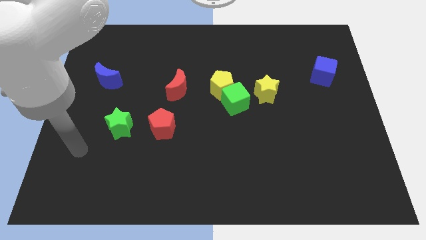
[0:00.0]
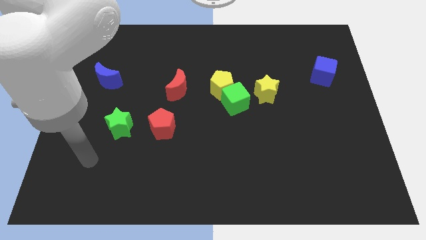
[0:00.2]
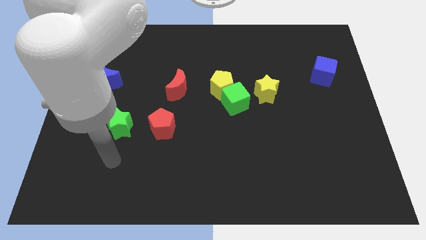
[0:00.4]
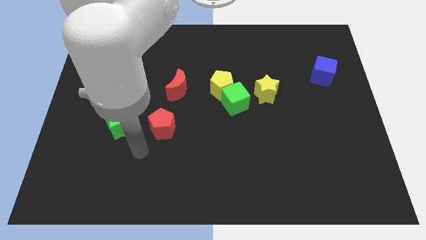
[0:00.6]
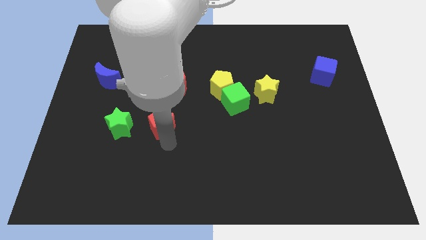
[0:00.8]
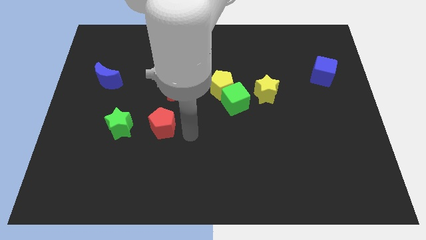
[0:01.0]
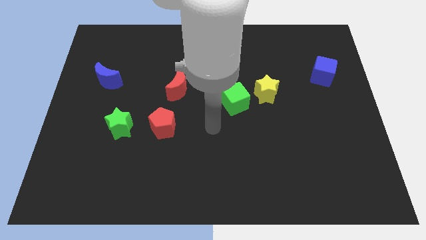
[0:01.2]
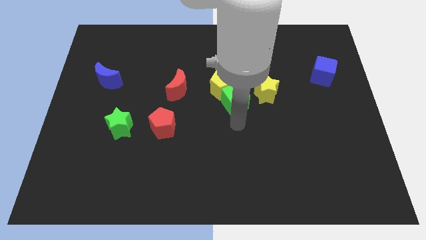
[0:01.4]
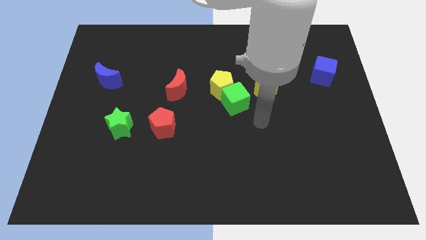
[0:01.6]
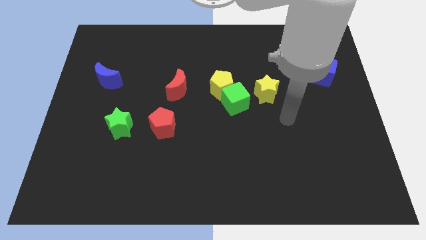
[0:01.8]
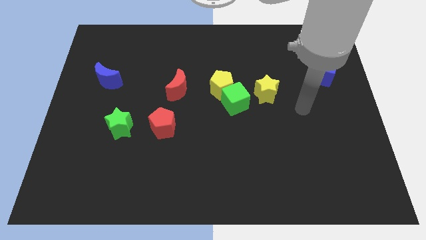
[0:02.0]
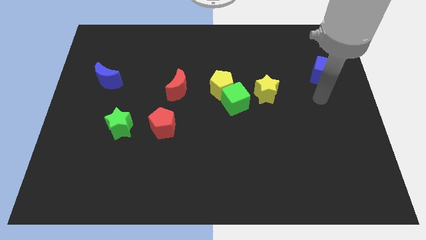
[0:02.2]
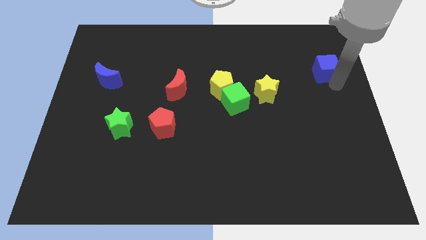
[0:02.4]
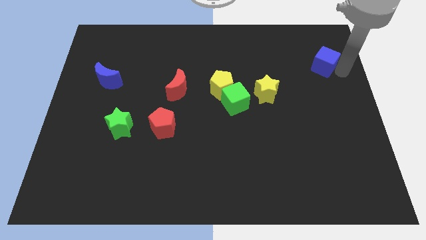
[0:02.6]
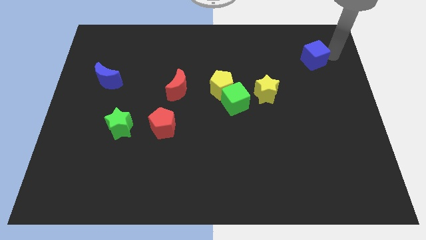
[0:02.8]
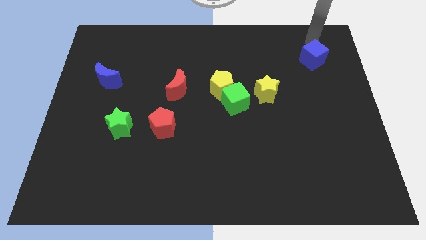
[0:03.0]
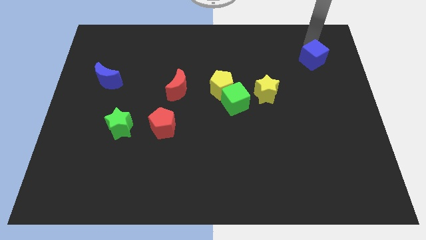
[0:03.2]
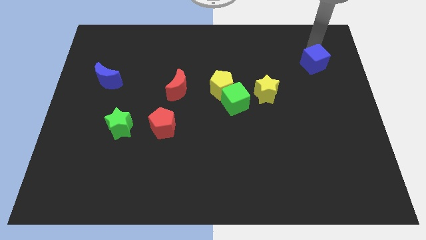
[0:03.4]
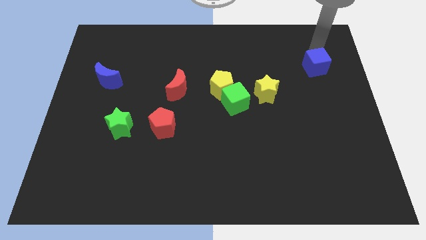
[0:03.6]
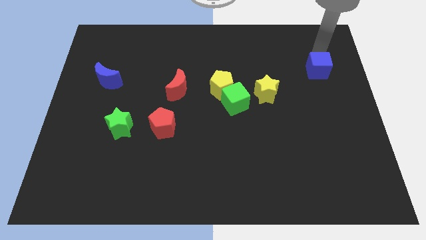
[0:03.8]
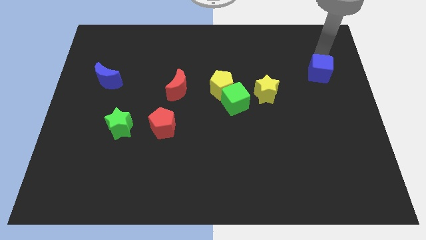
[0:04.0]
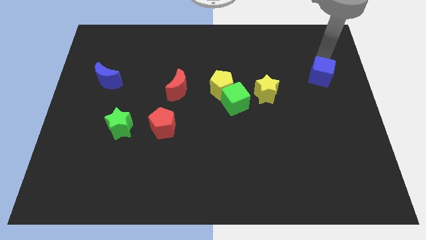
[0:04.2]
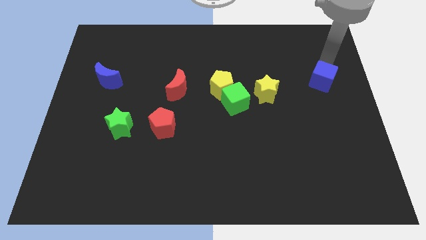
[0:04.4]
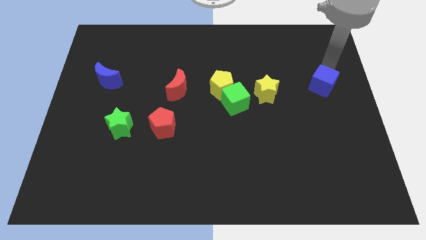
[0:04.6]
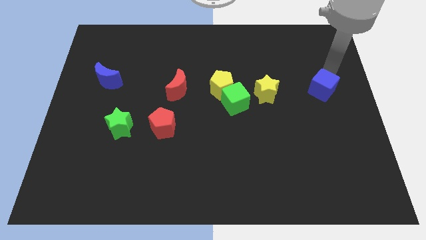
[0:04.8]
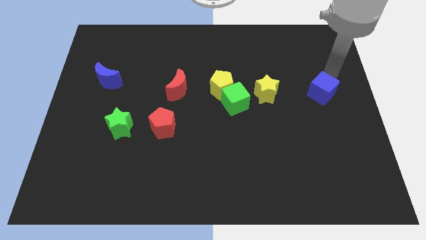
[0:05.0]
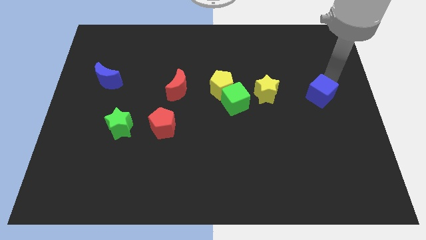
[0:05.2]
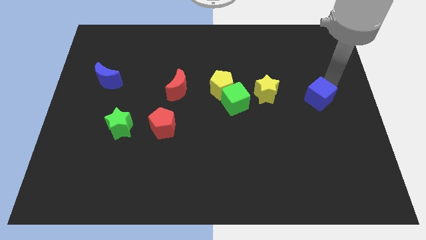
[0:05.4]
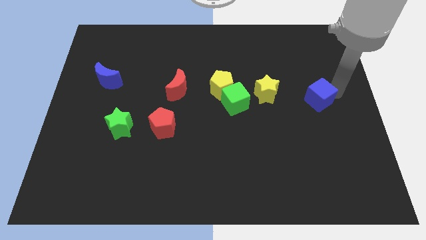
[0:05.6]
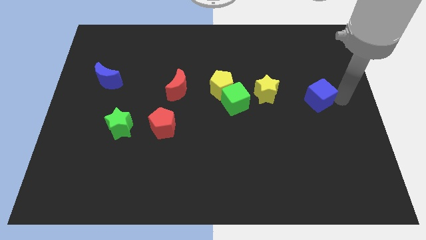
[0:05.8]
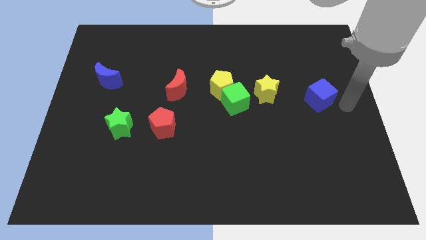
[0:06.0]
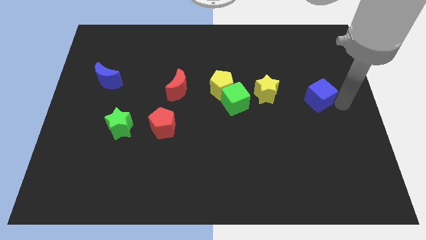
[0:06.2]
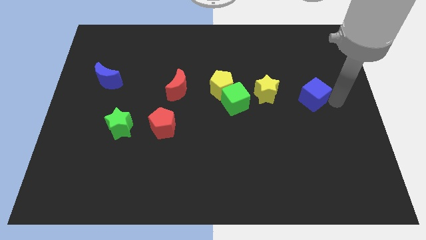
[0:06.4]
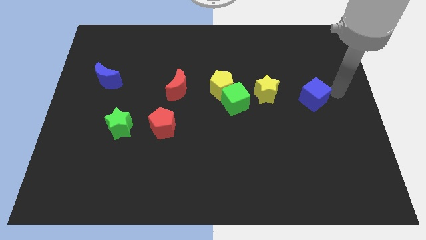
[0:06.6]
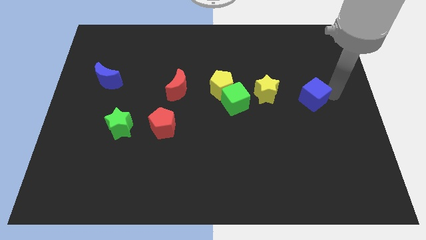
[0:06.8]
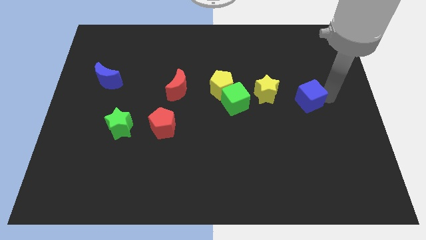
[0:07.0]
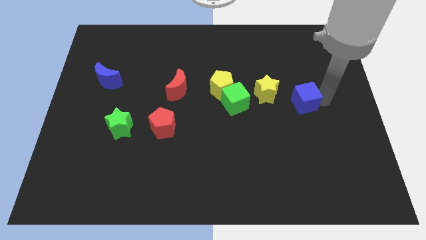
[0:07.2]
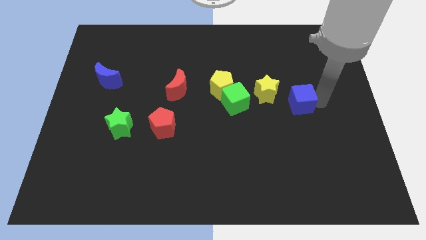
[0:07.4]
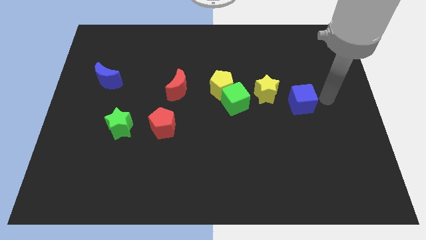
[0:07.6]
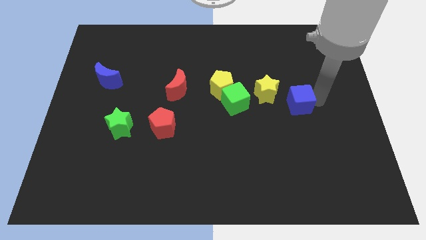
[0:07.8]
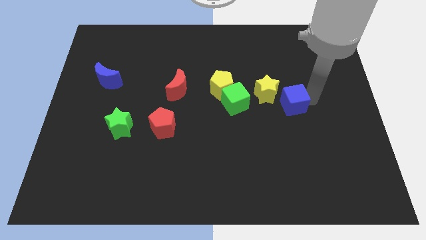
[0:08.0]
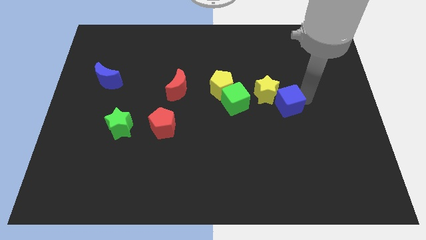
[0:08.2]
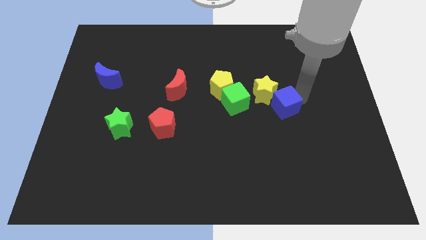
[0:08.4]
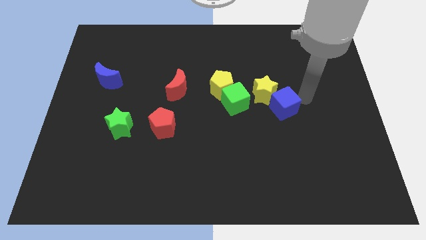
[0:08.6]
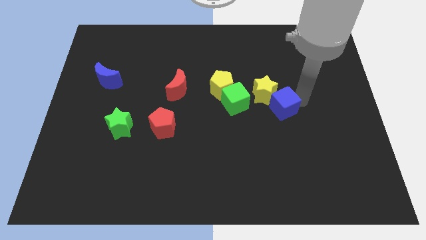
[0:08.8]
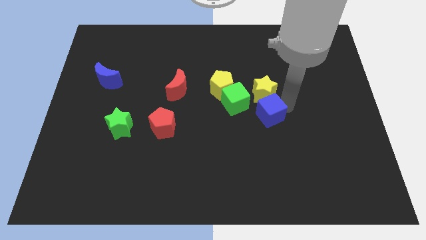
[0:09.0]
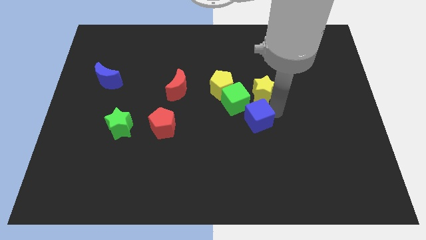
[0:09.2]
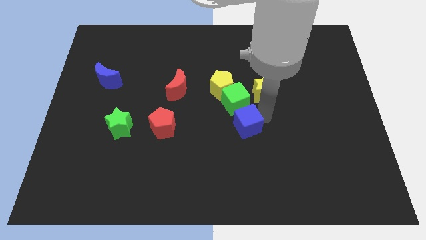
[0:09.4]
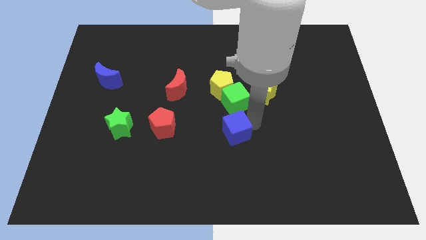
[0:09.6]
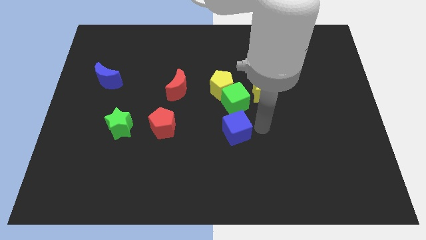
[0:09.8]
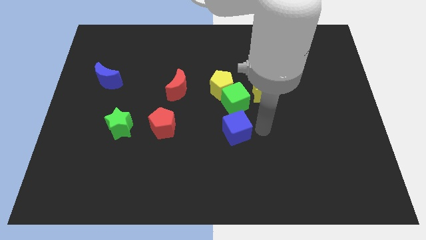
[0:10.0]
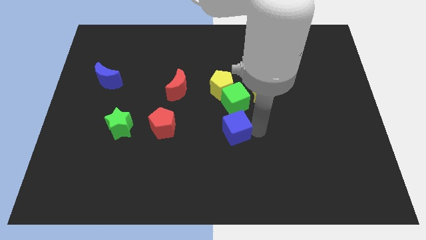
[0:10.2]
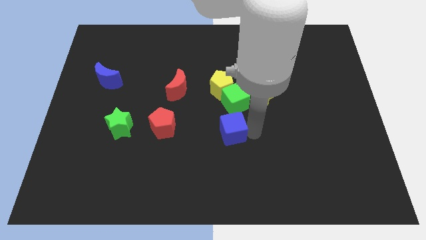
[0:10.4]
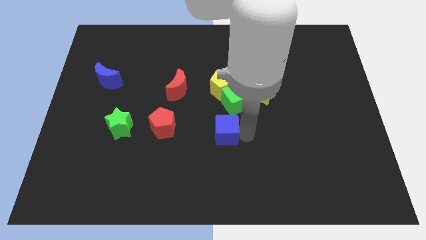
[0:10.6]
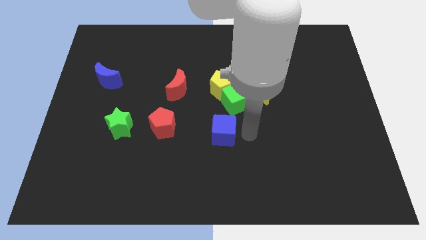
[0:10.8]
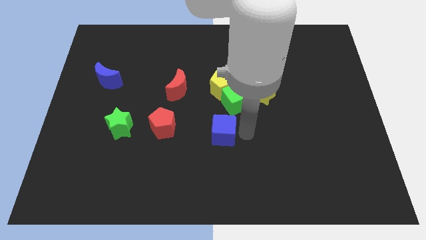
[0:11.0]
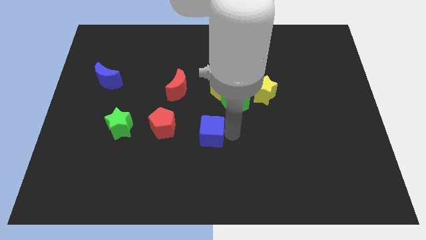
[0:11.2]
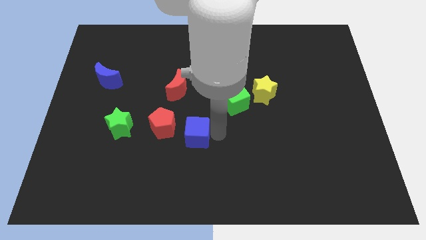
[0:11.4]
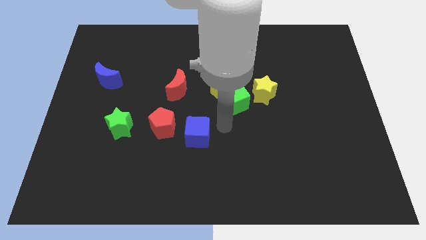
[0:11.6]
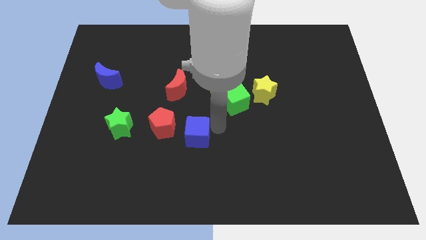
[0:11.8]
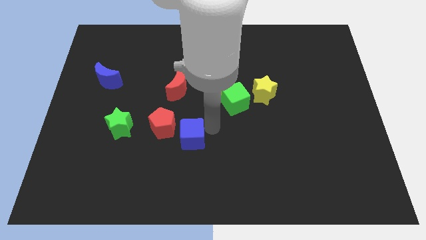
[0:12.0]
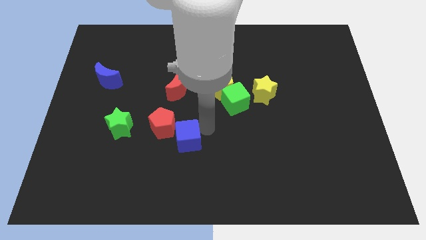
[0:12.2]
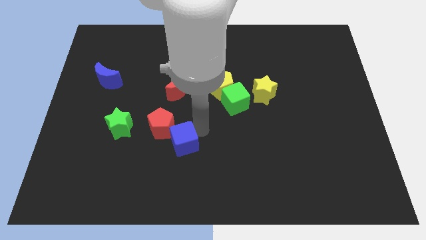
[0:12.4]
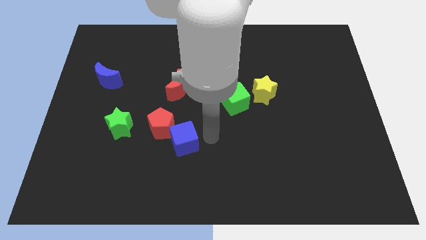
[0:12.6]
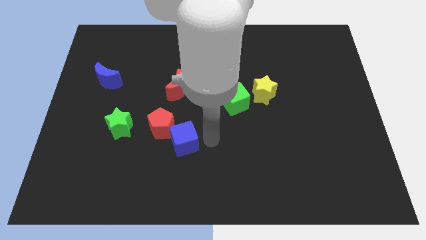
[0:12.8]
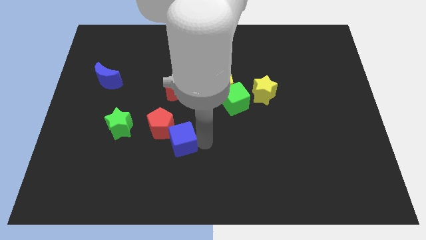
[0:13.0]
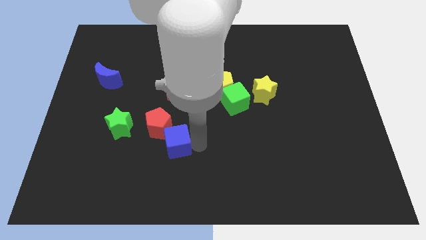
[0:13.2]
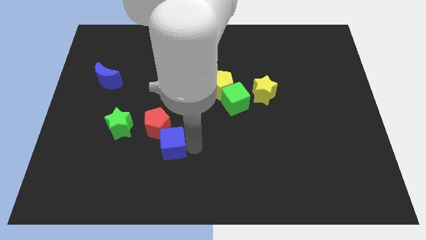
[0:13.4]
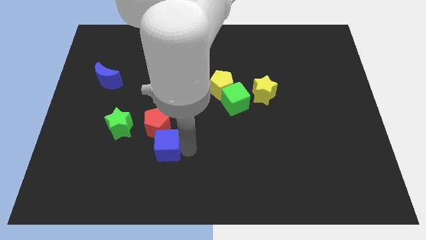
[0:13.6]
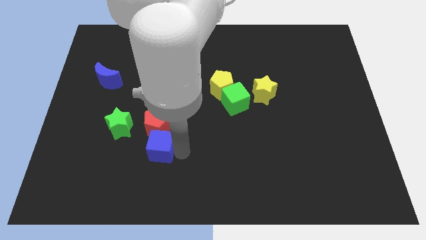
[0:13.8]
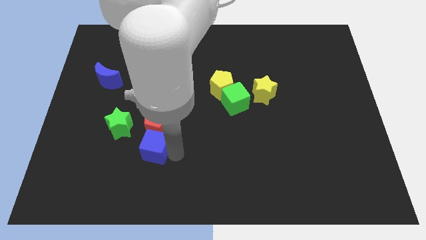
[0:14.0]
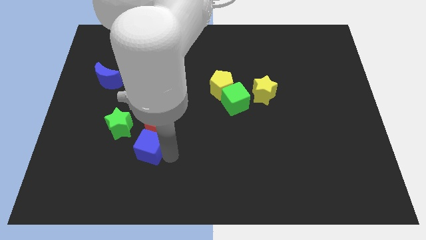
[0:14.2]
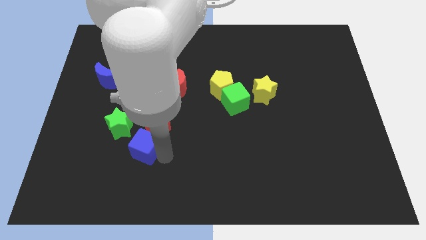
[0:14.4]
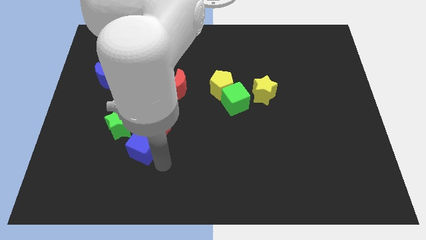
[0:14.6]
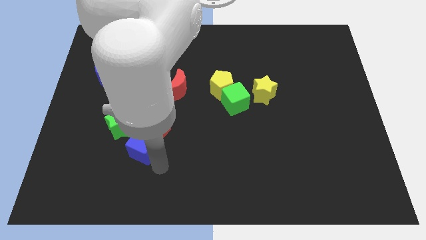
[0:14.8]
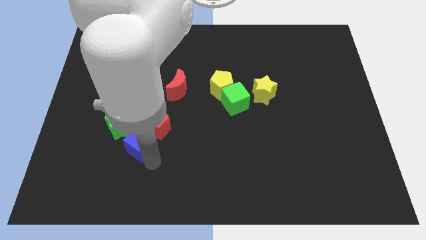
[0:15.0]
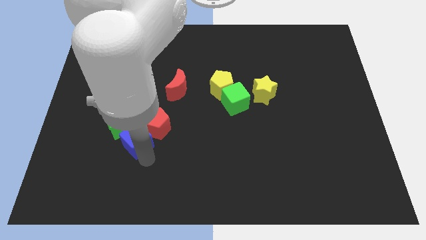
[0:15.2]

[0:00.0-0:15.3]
slide the blue cube close to the green star
